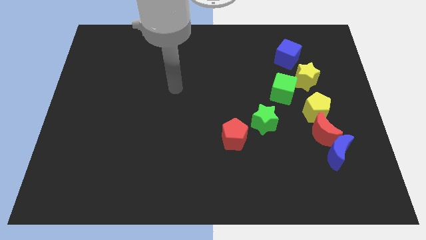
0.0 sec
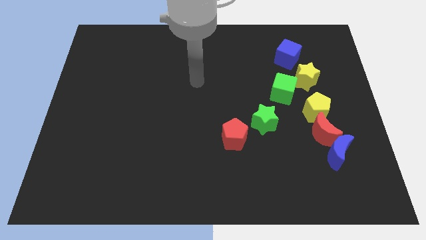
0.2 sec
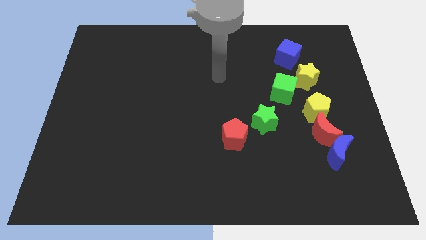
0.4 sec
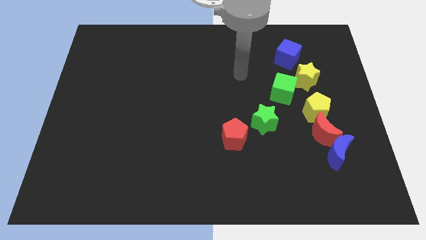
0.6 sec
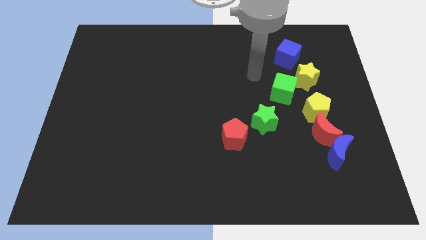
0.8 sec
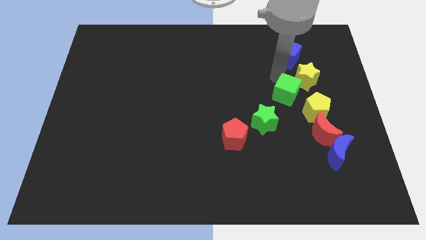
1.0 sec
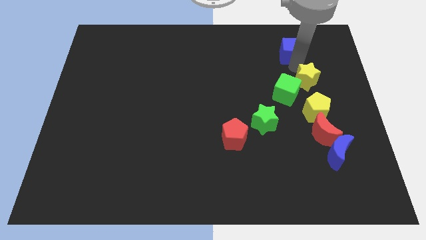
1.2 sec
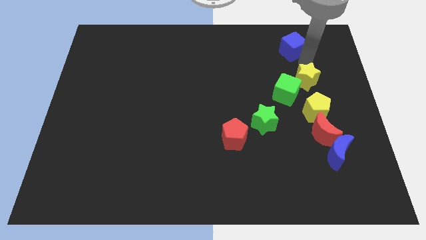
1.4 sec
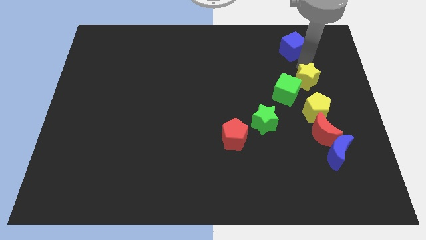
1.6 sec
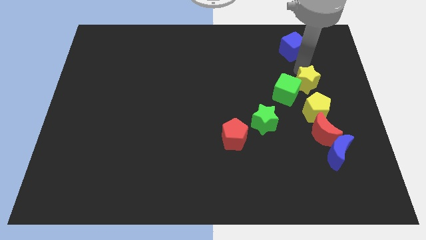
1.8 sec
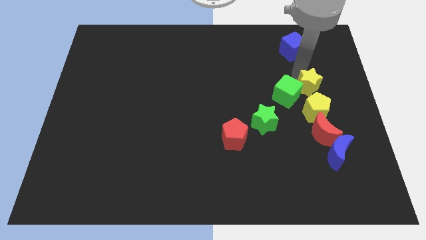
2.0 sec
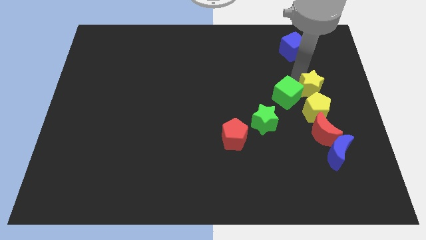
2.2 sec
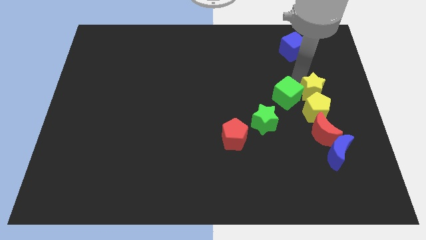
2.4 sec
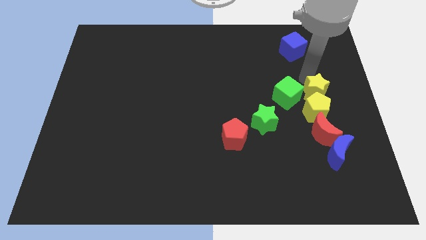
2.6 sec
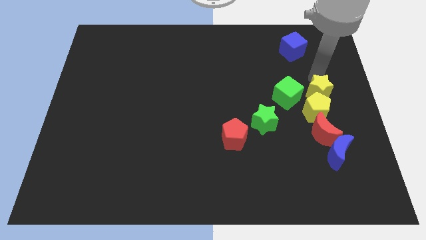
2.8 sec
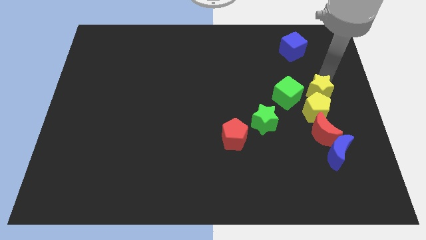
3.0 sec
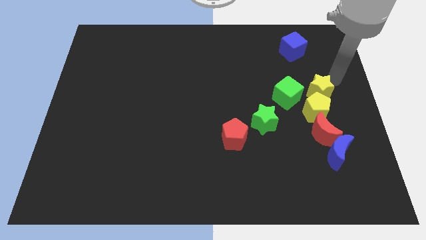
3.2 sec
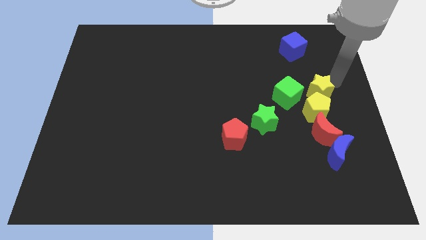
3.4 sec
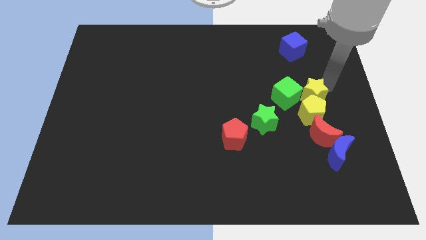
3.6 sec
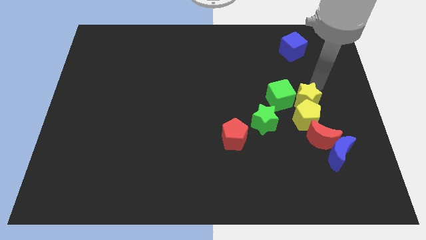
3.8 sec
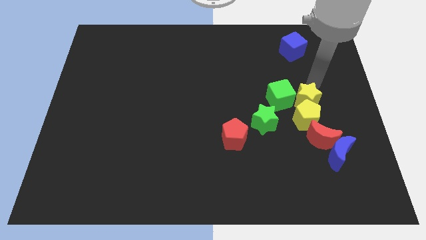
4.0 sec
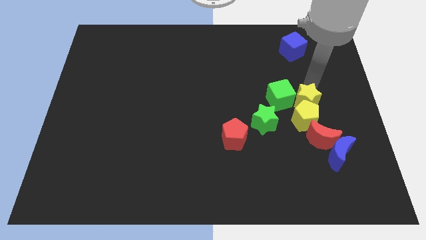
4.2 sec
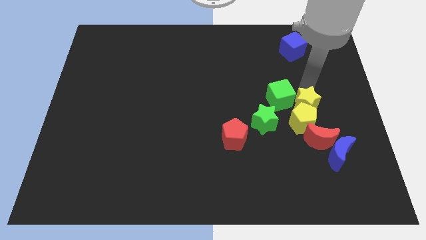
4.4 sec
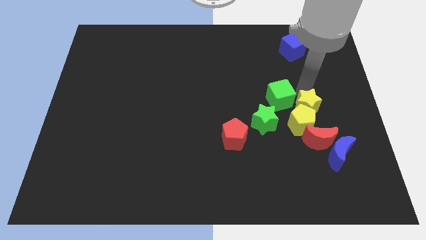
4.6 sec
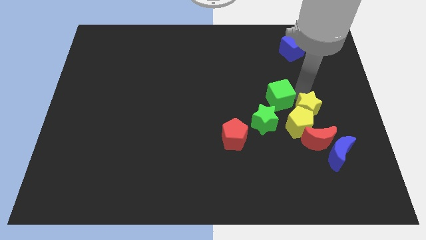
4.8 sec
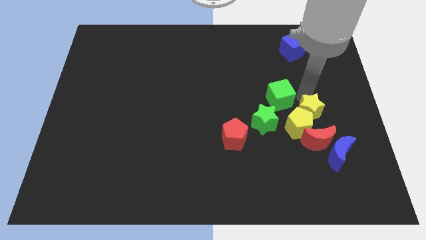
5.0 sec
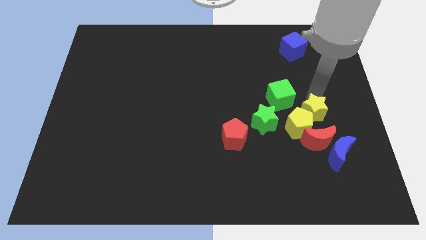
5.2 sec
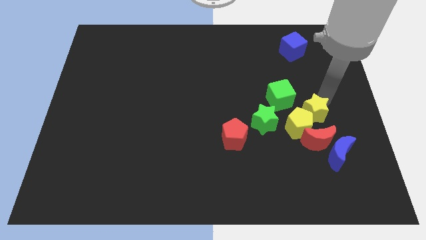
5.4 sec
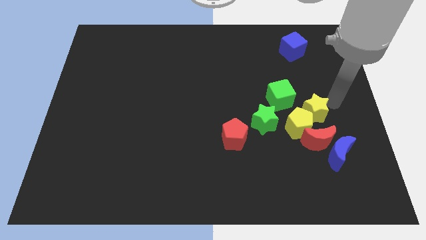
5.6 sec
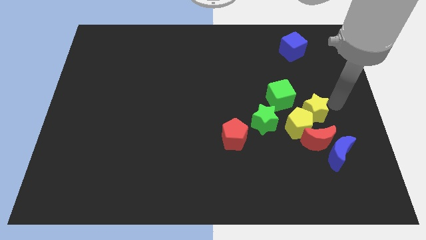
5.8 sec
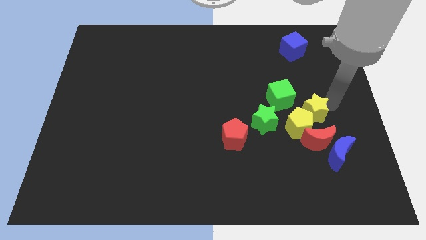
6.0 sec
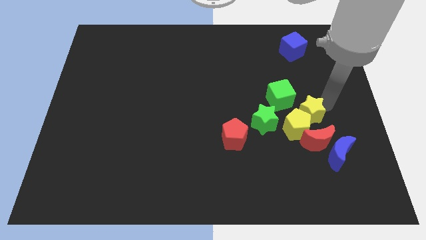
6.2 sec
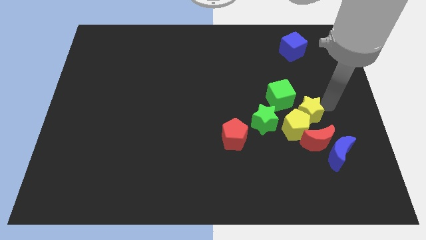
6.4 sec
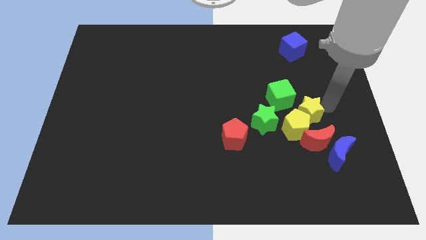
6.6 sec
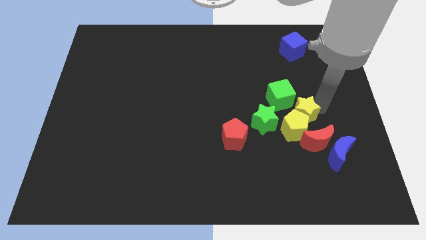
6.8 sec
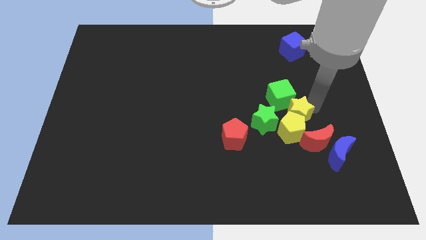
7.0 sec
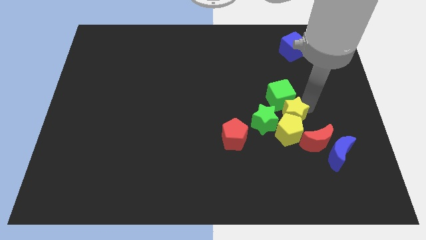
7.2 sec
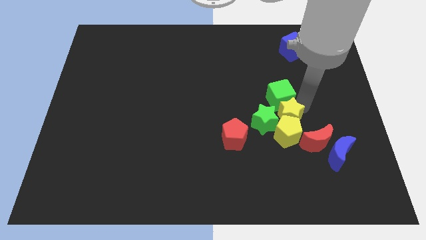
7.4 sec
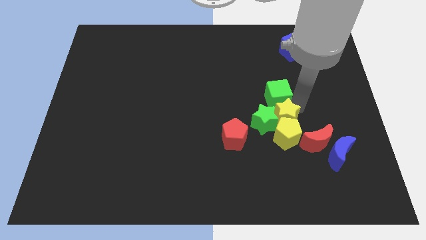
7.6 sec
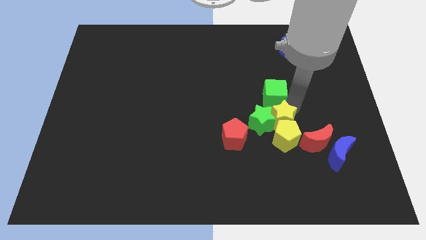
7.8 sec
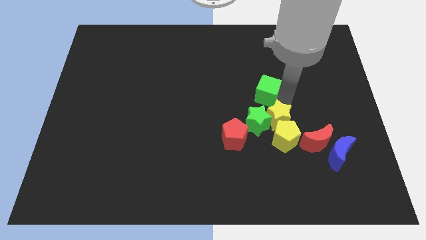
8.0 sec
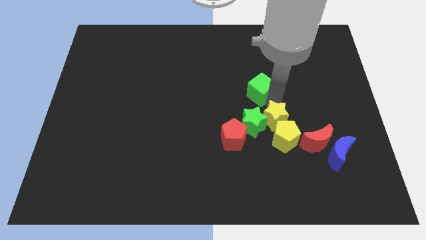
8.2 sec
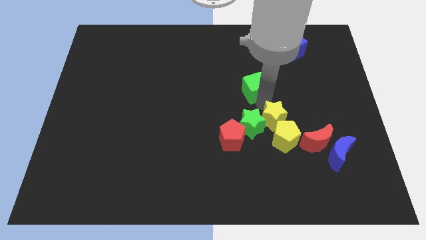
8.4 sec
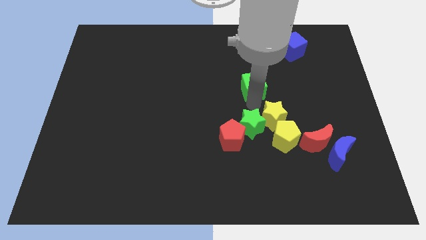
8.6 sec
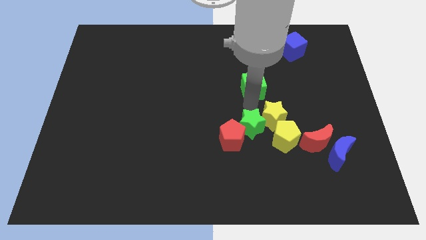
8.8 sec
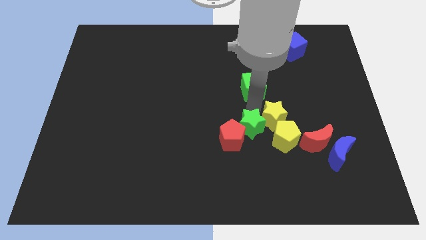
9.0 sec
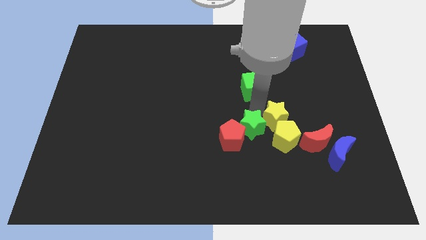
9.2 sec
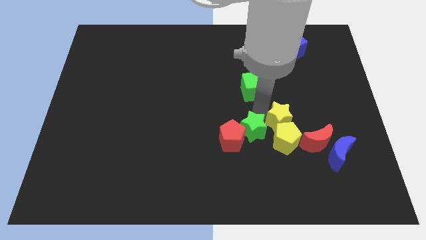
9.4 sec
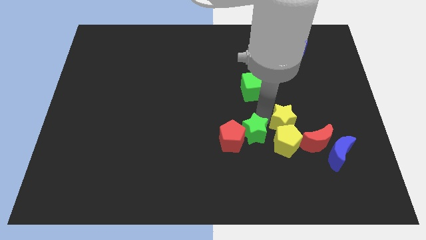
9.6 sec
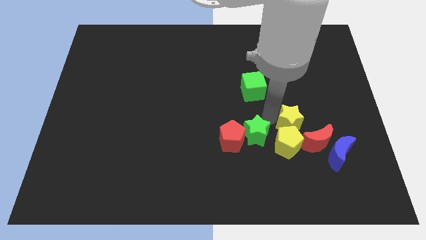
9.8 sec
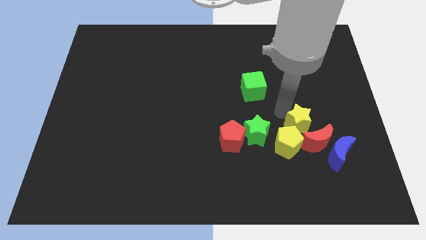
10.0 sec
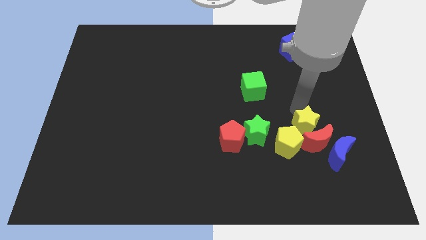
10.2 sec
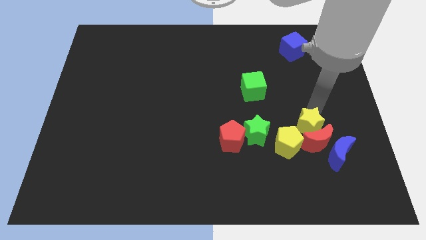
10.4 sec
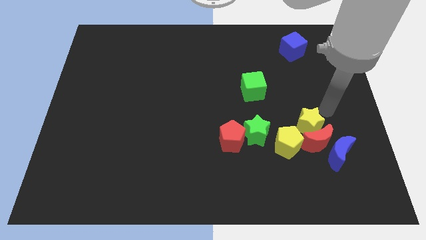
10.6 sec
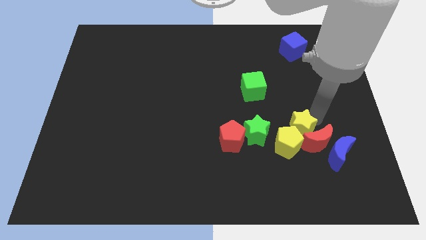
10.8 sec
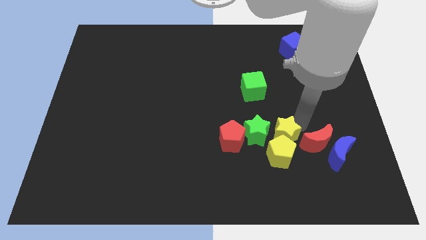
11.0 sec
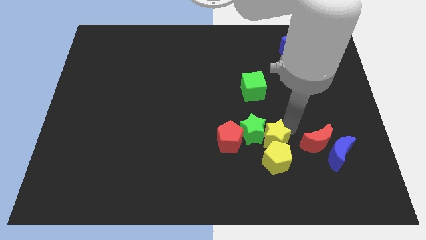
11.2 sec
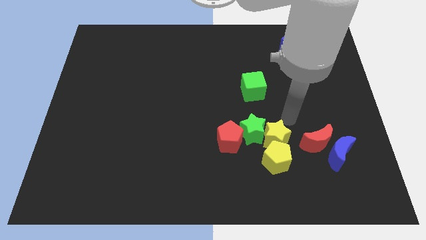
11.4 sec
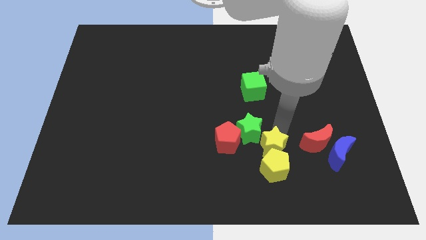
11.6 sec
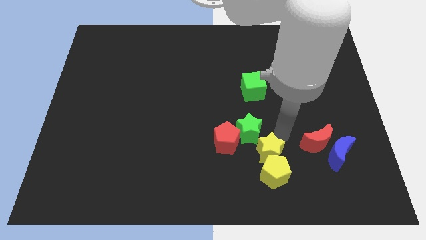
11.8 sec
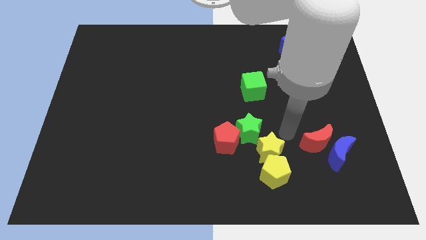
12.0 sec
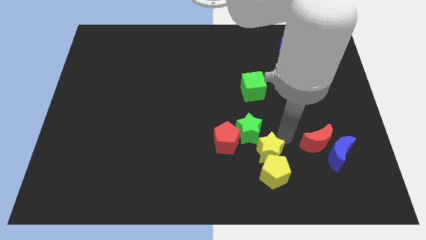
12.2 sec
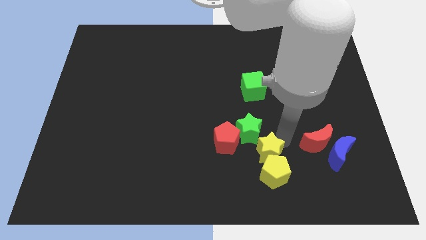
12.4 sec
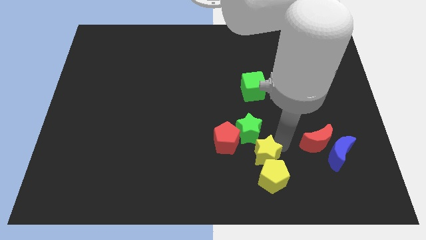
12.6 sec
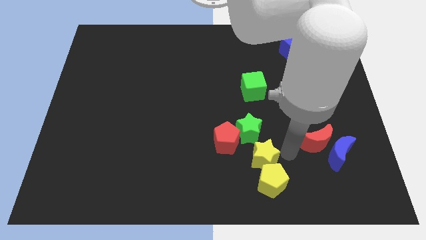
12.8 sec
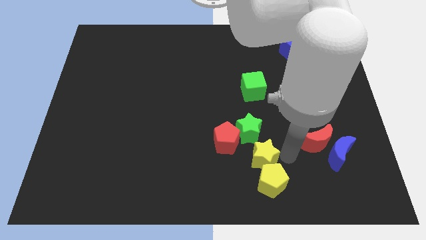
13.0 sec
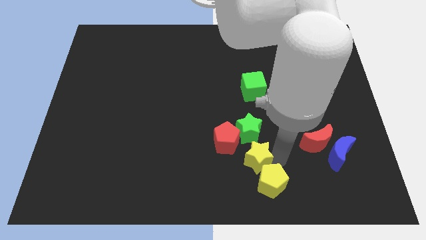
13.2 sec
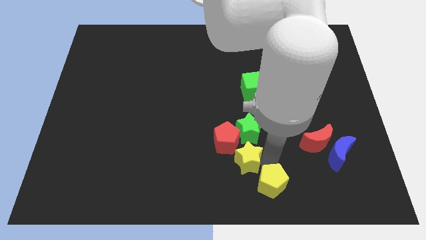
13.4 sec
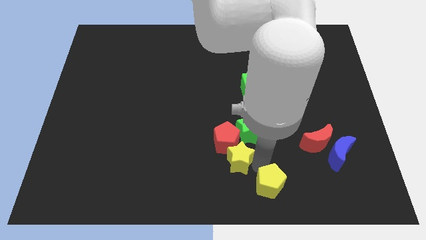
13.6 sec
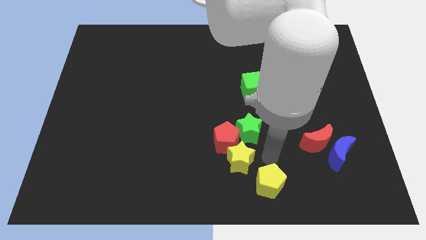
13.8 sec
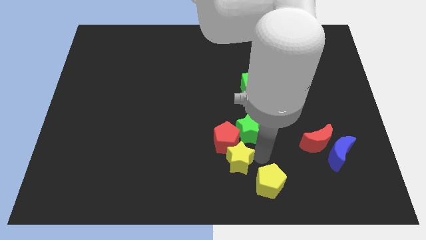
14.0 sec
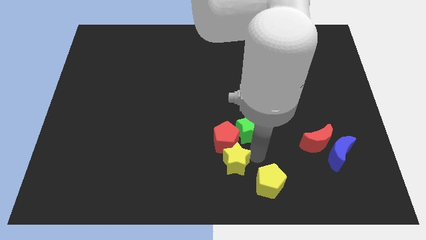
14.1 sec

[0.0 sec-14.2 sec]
slide the yellow star to the bottom left side of the red pentagon

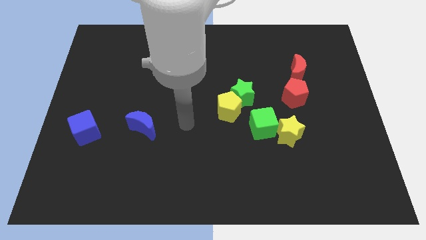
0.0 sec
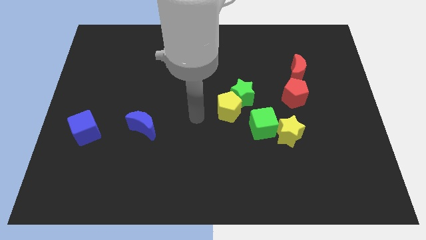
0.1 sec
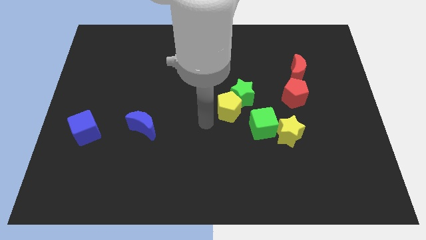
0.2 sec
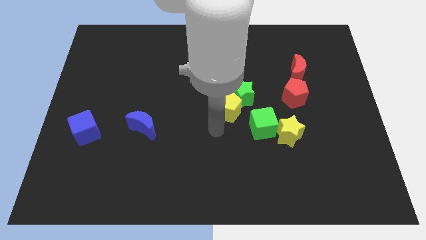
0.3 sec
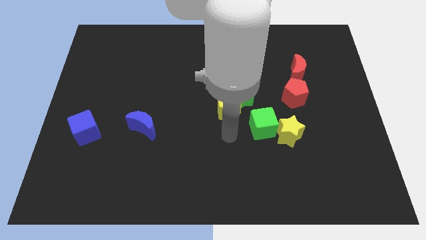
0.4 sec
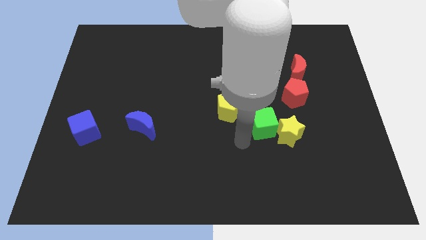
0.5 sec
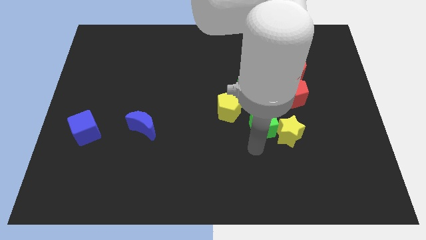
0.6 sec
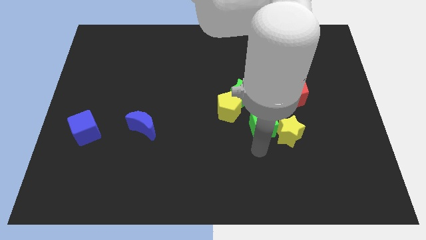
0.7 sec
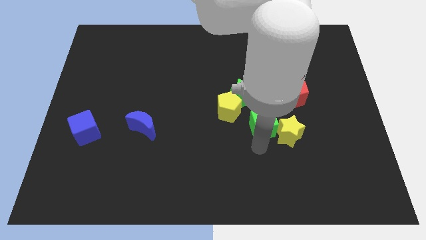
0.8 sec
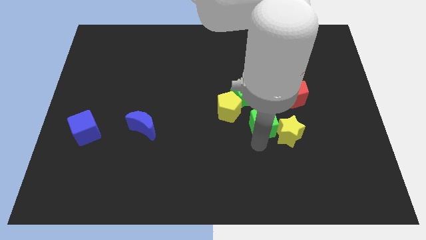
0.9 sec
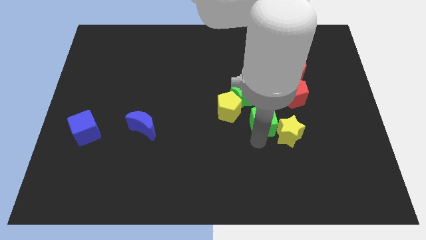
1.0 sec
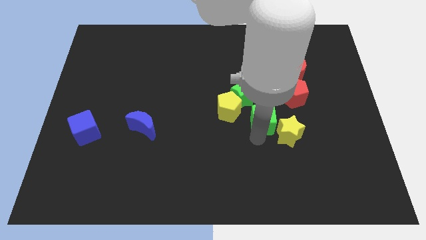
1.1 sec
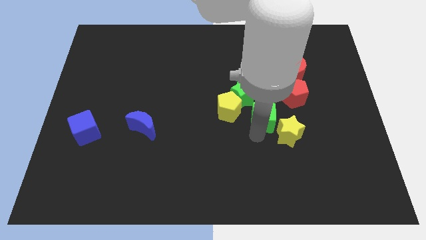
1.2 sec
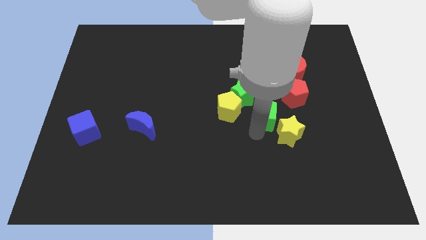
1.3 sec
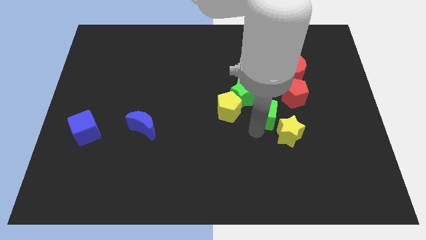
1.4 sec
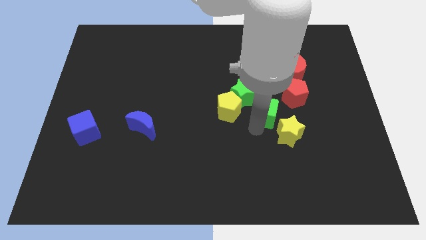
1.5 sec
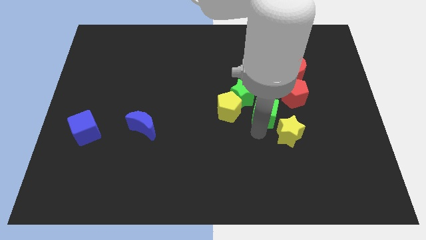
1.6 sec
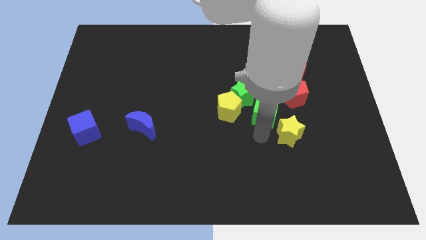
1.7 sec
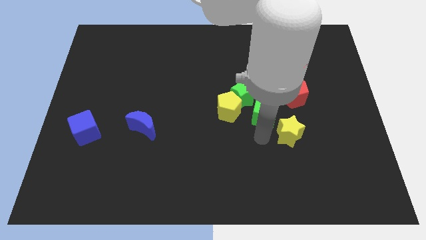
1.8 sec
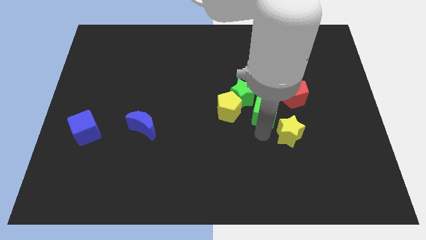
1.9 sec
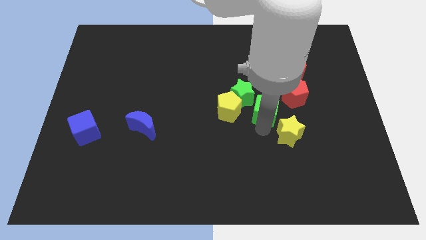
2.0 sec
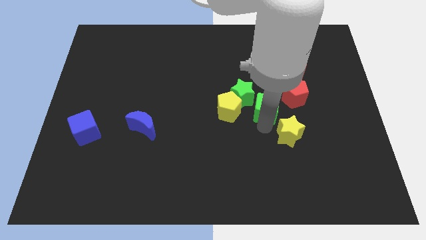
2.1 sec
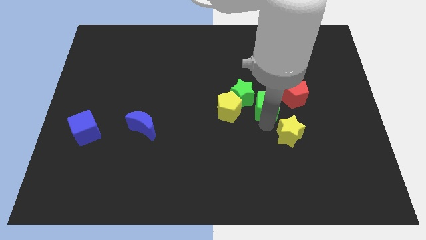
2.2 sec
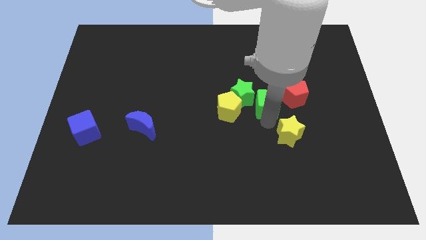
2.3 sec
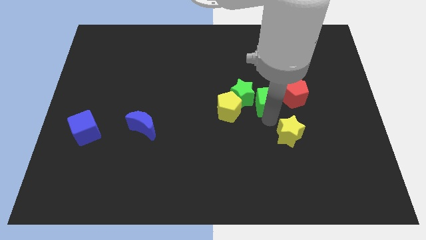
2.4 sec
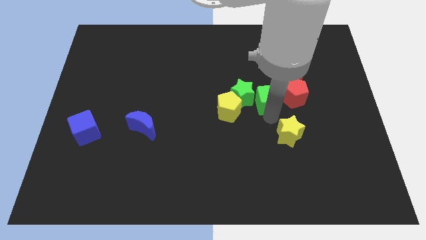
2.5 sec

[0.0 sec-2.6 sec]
push the green cube diagonally up and to the right of the yellow pentagon
